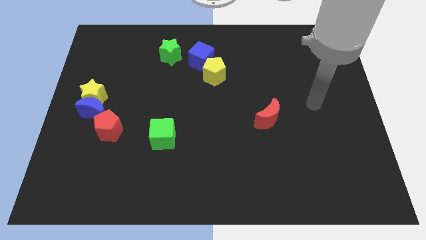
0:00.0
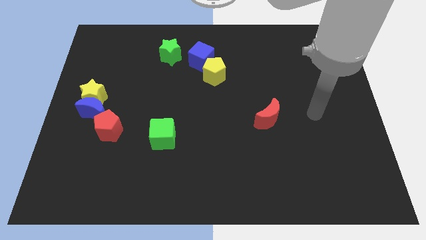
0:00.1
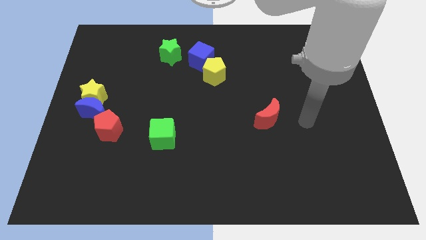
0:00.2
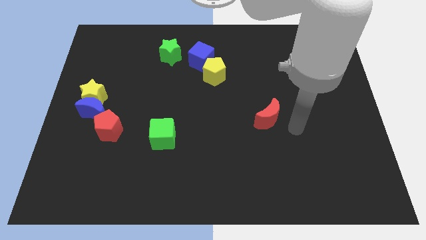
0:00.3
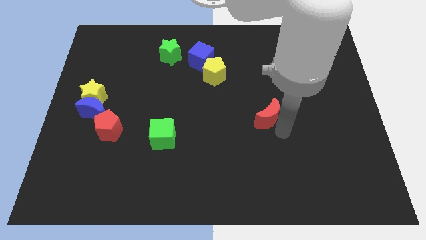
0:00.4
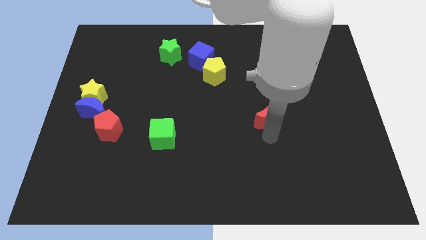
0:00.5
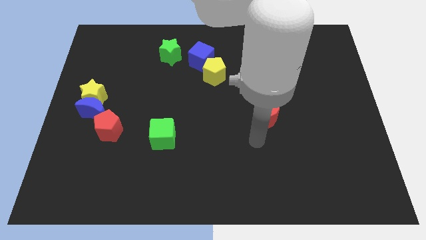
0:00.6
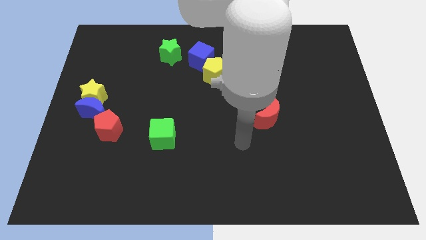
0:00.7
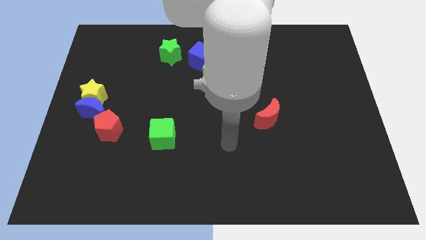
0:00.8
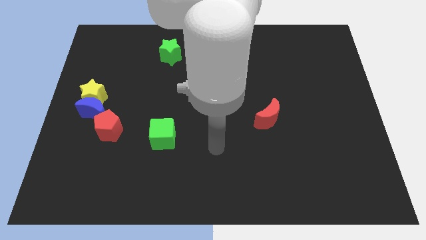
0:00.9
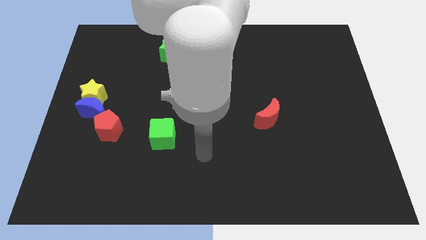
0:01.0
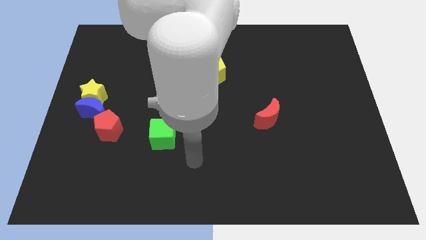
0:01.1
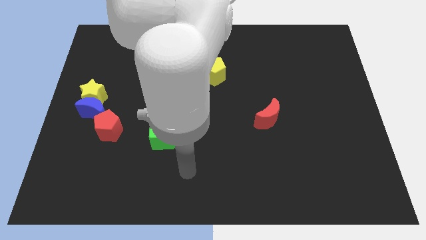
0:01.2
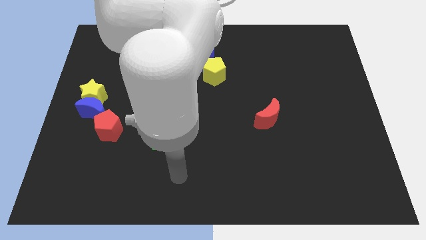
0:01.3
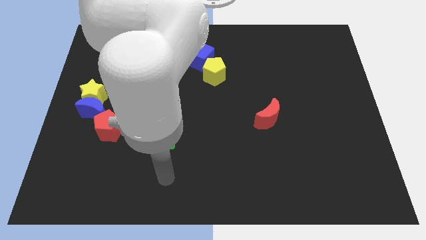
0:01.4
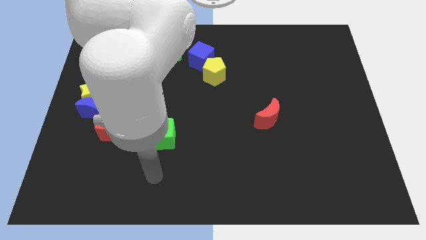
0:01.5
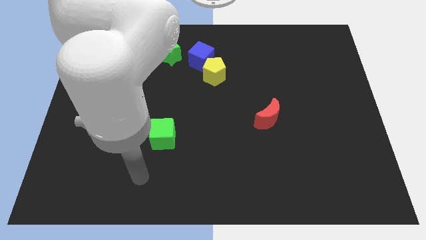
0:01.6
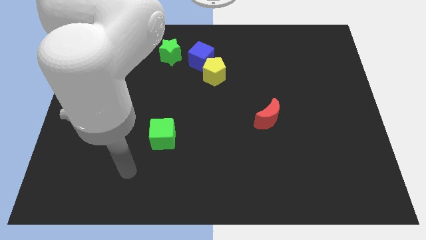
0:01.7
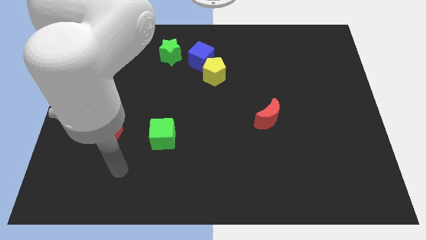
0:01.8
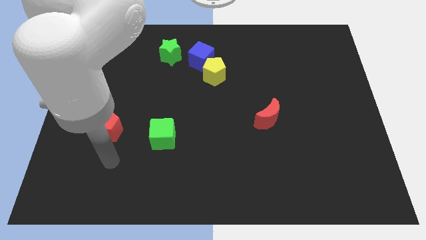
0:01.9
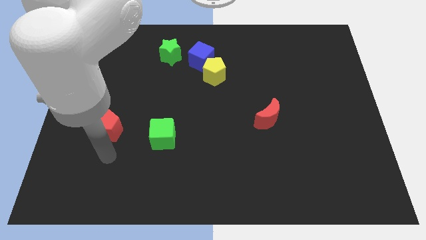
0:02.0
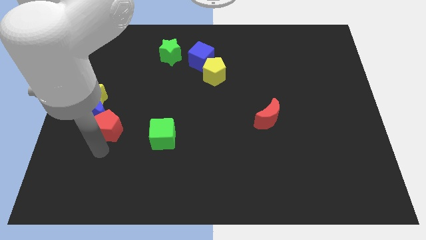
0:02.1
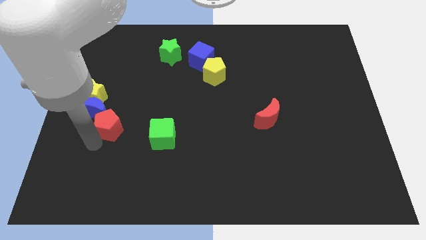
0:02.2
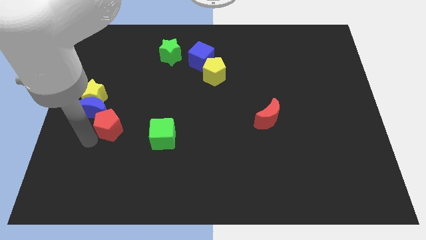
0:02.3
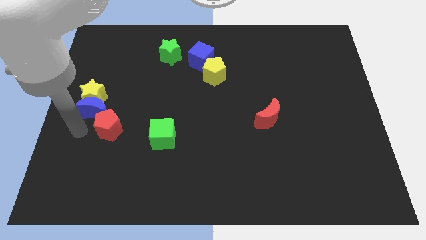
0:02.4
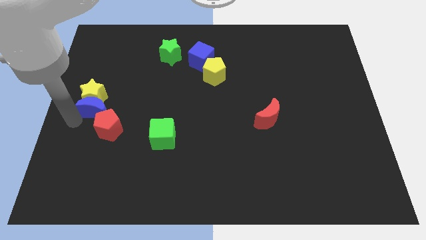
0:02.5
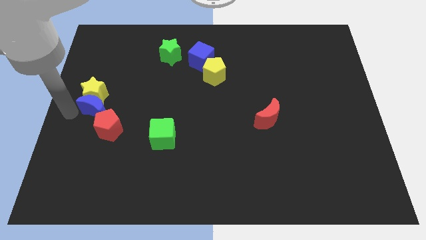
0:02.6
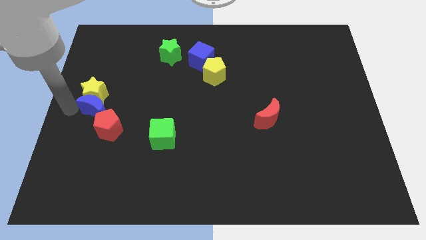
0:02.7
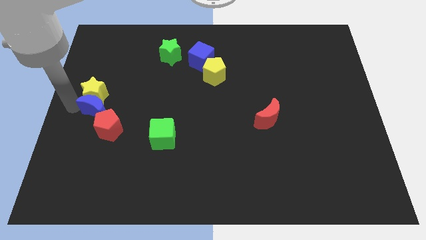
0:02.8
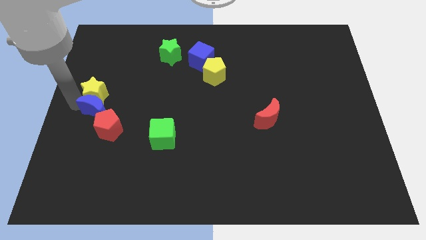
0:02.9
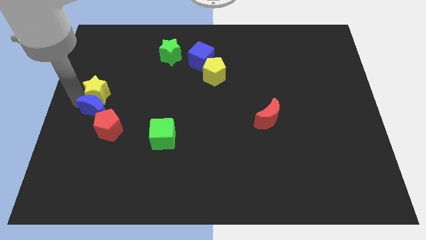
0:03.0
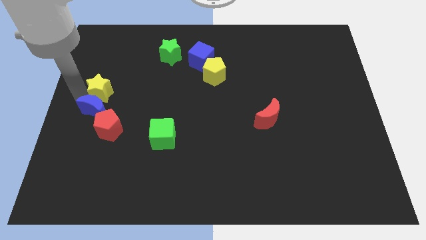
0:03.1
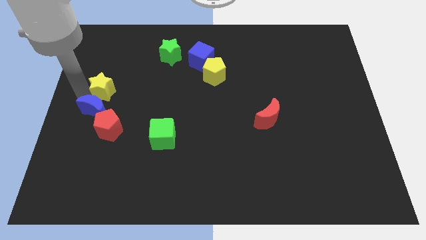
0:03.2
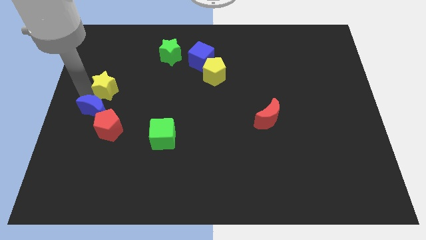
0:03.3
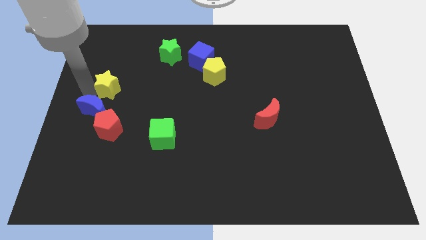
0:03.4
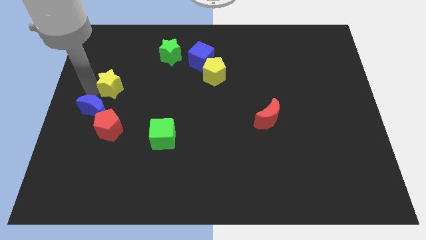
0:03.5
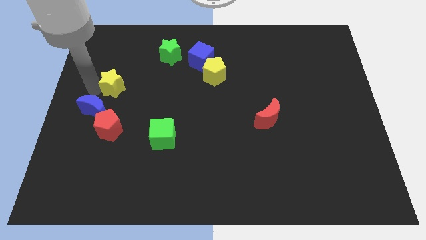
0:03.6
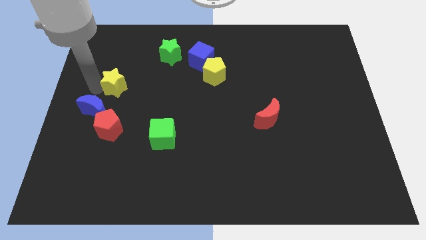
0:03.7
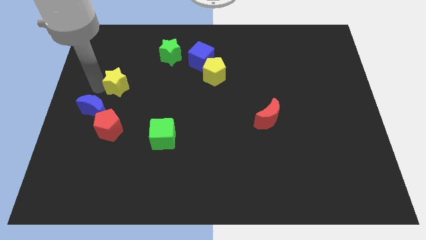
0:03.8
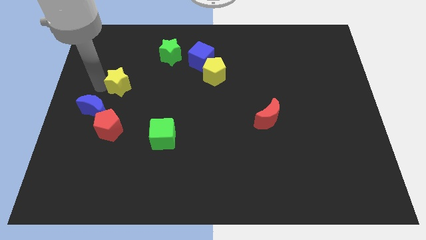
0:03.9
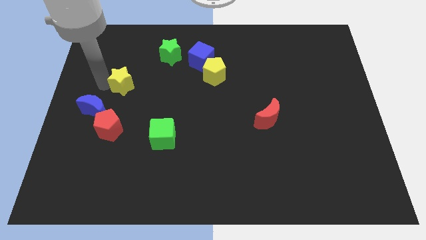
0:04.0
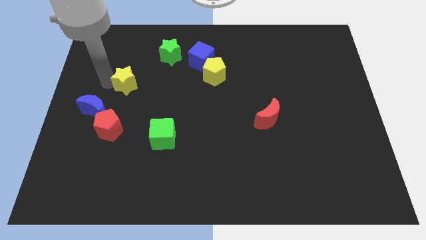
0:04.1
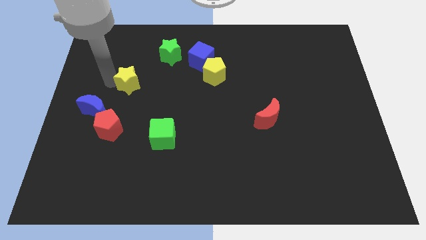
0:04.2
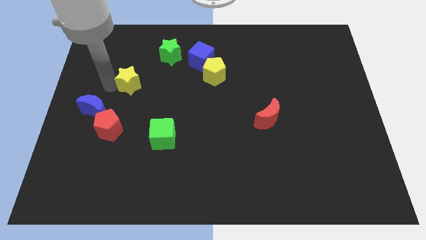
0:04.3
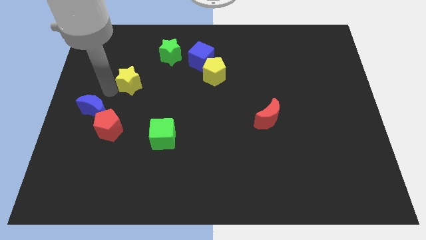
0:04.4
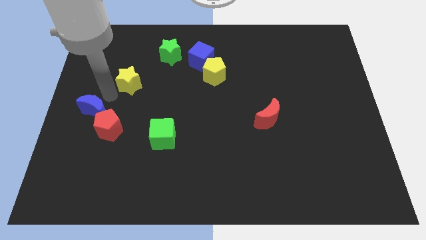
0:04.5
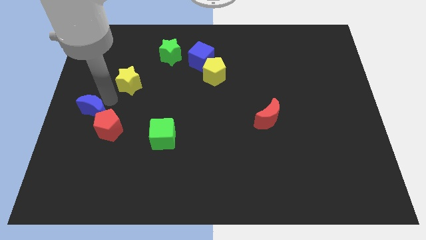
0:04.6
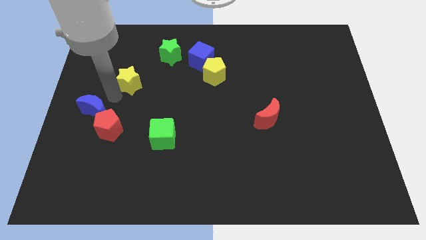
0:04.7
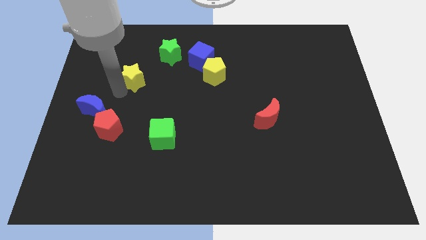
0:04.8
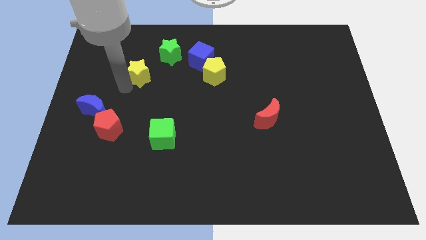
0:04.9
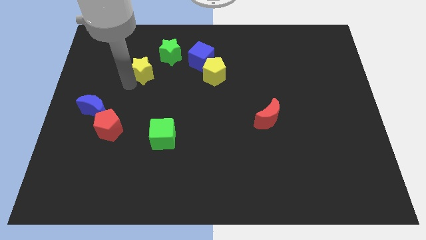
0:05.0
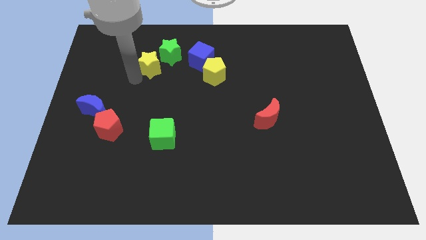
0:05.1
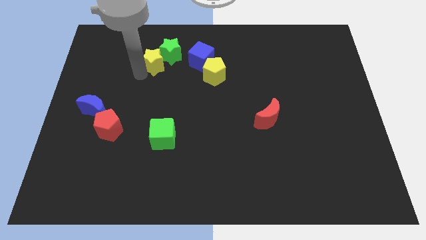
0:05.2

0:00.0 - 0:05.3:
slide the yellow star close to the green star

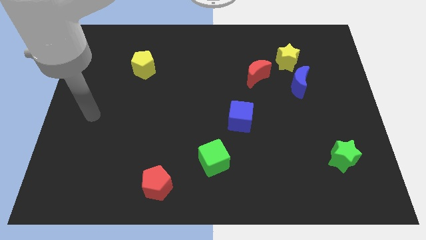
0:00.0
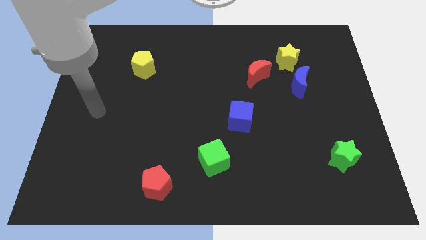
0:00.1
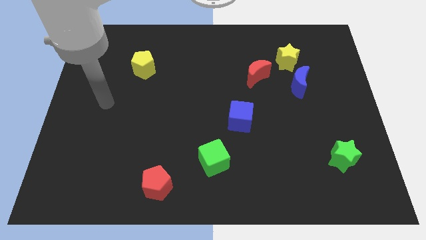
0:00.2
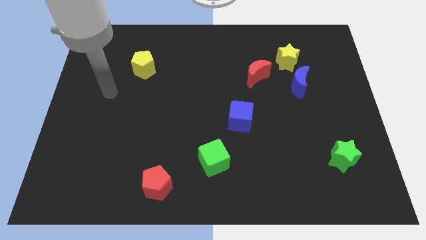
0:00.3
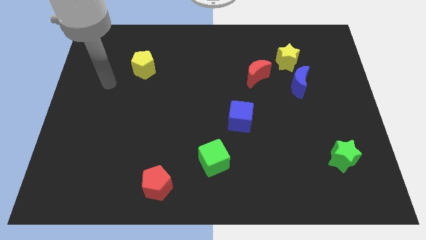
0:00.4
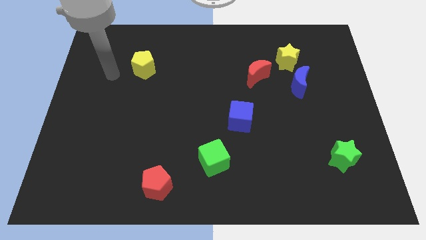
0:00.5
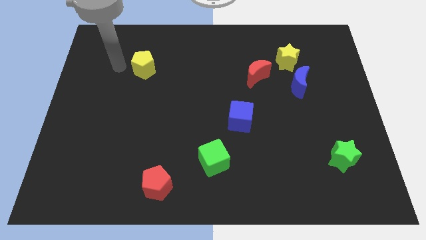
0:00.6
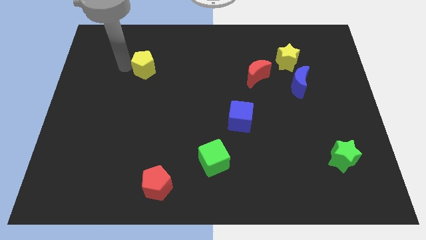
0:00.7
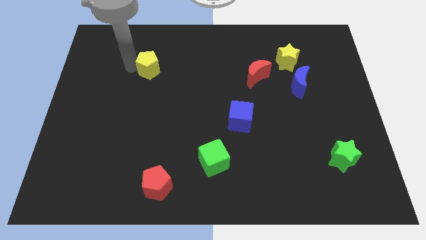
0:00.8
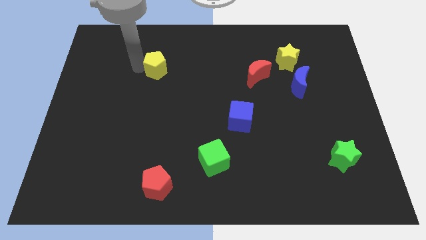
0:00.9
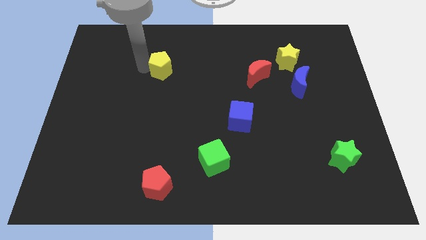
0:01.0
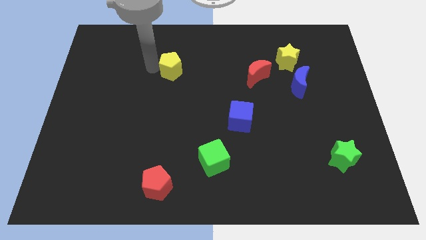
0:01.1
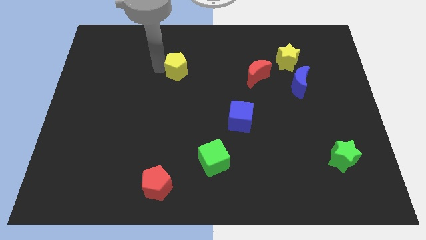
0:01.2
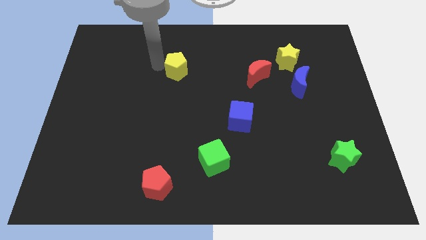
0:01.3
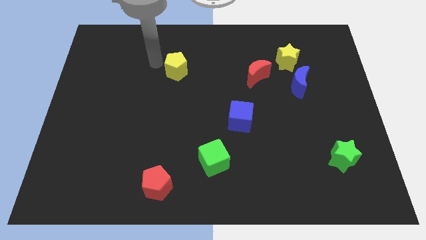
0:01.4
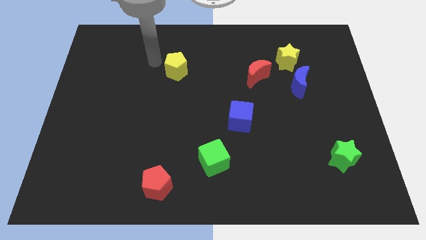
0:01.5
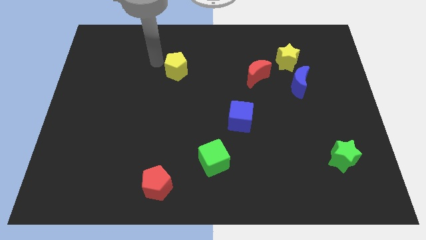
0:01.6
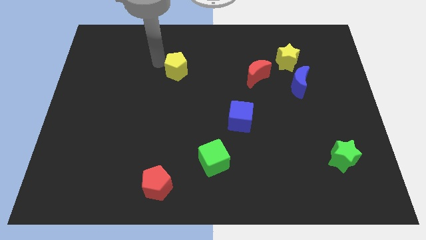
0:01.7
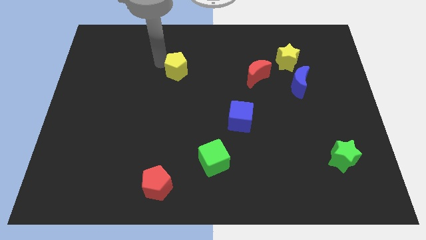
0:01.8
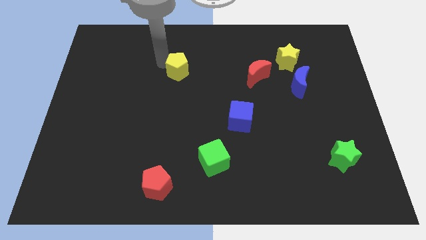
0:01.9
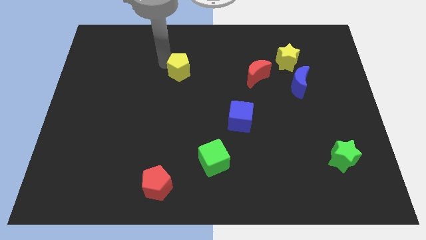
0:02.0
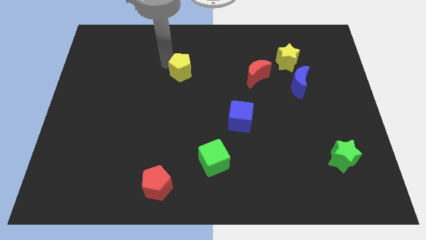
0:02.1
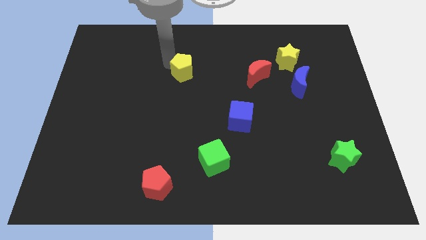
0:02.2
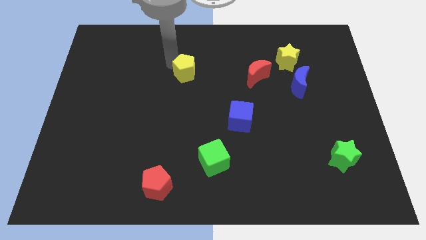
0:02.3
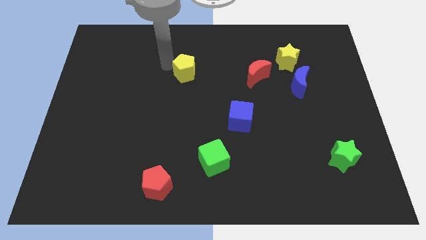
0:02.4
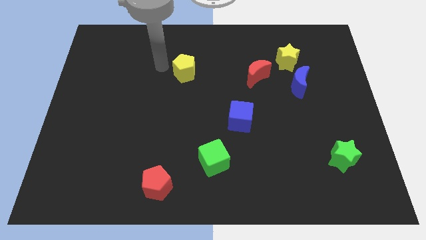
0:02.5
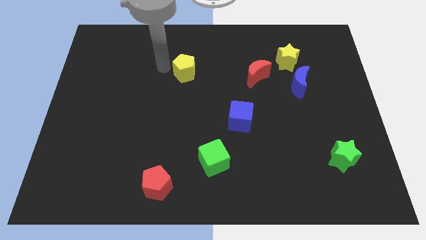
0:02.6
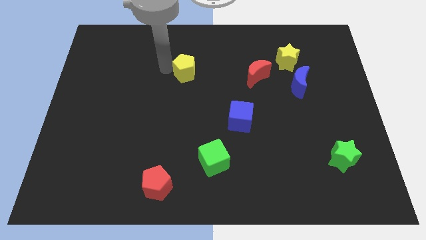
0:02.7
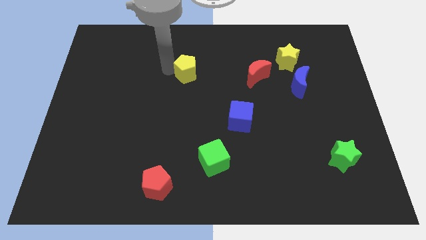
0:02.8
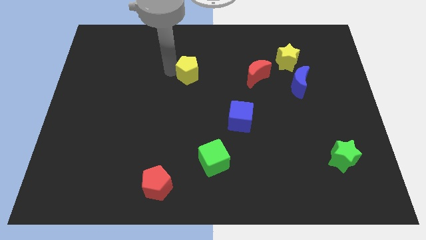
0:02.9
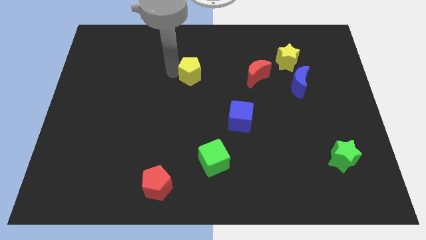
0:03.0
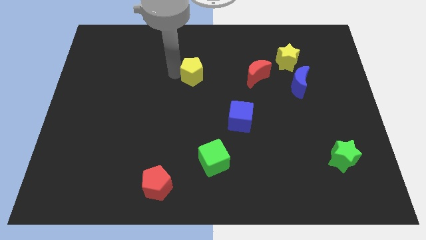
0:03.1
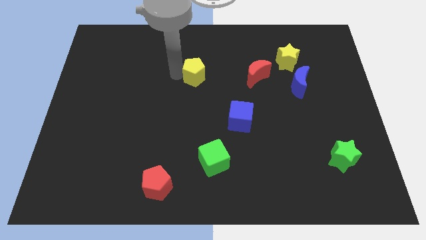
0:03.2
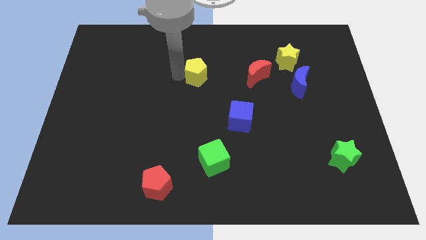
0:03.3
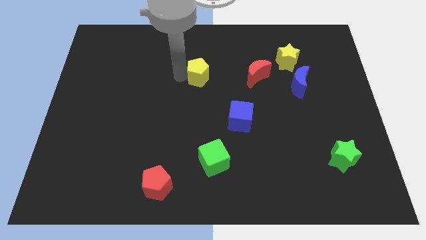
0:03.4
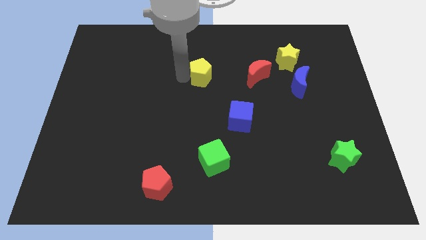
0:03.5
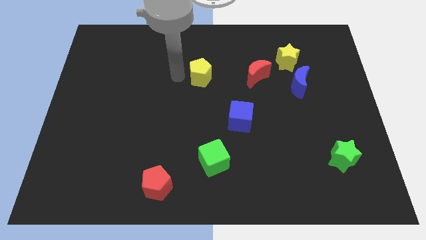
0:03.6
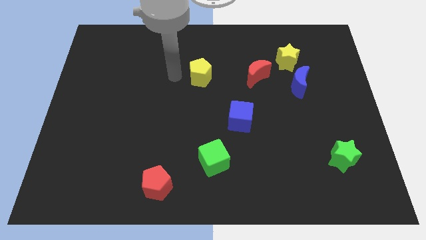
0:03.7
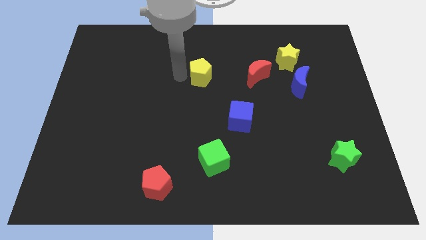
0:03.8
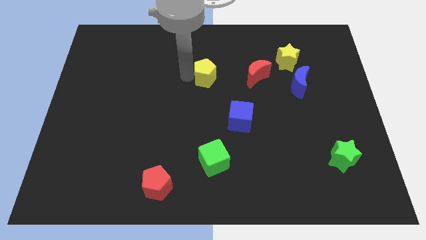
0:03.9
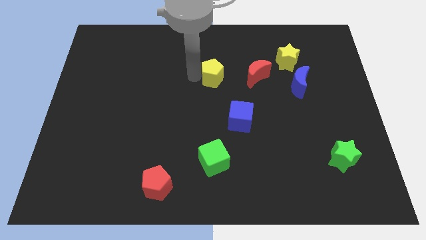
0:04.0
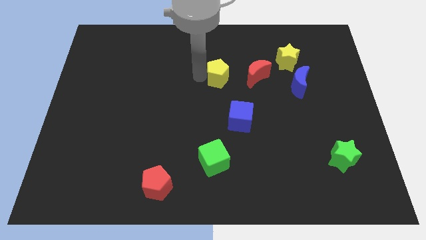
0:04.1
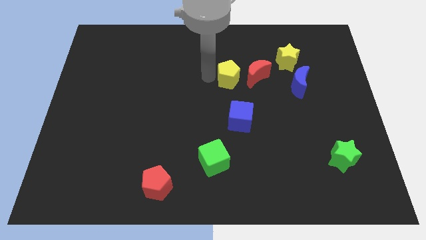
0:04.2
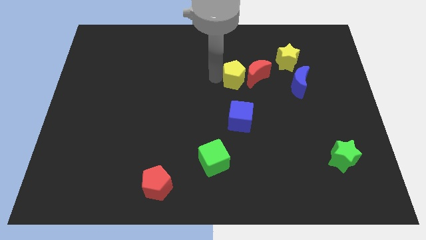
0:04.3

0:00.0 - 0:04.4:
move the yellow pentagon towards the red moon
